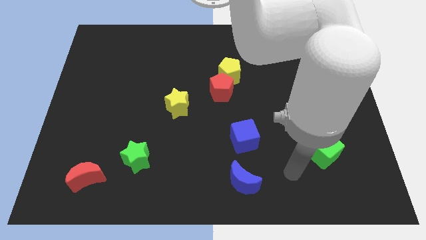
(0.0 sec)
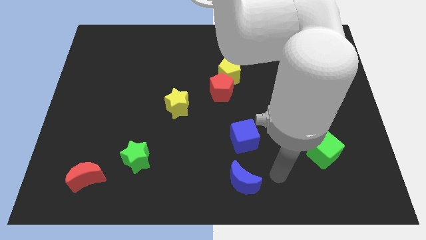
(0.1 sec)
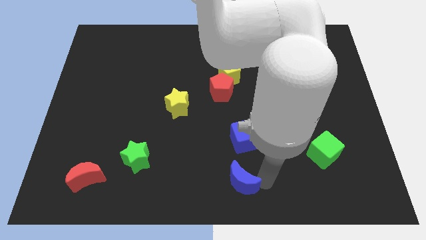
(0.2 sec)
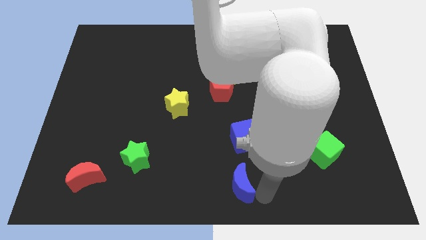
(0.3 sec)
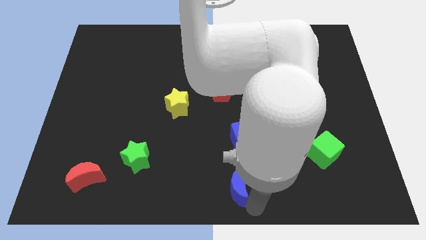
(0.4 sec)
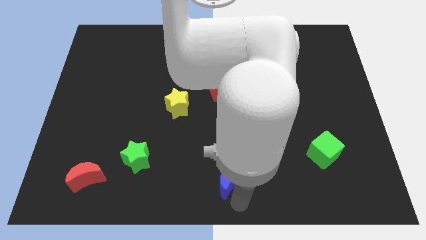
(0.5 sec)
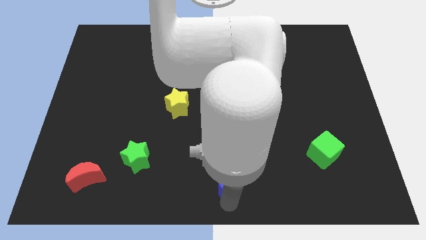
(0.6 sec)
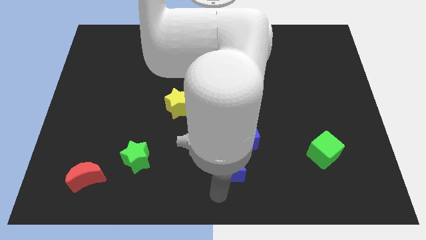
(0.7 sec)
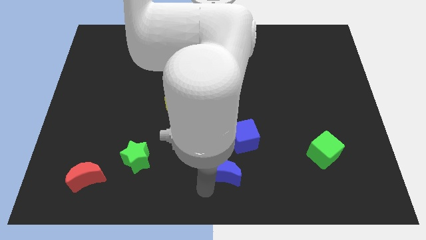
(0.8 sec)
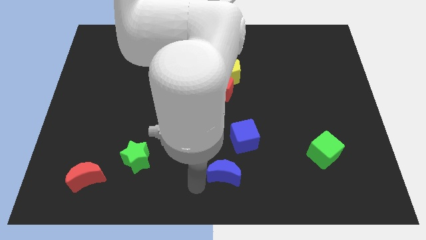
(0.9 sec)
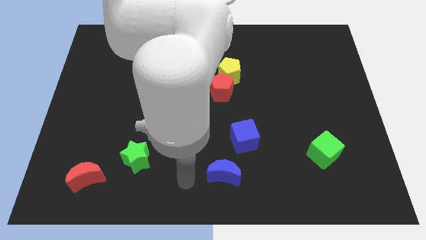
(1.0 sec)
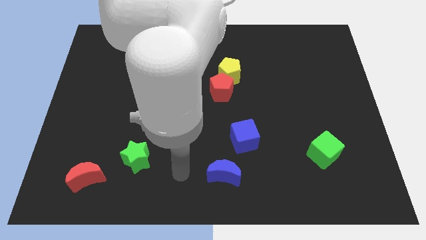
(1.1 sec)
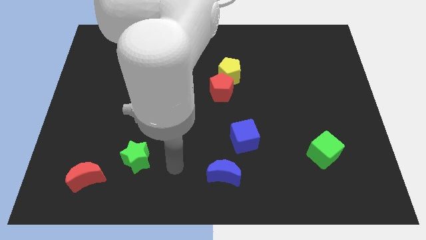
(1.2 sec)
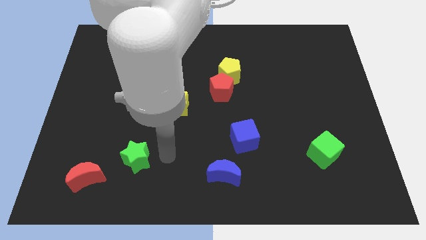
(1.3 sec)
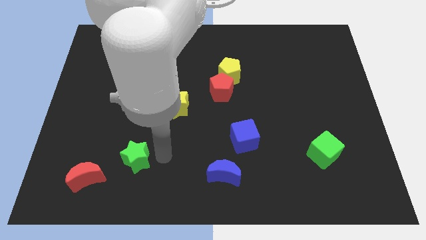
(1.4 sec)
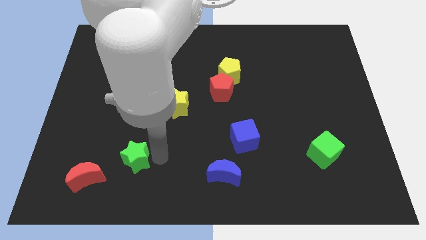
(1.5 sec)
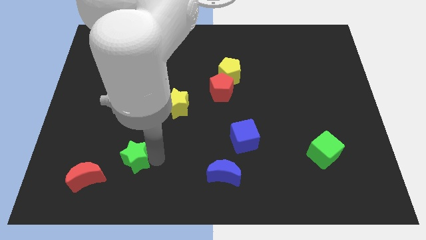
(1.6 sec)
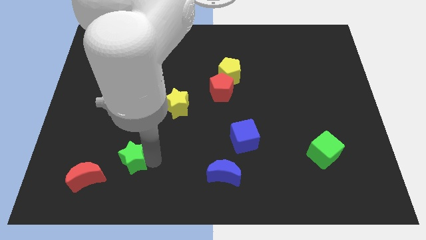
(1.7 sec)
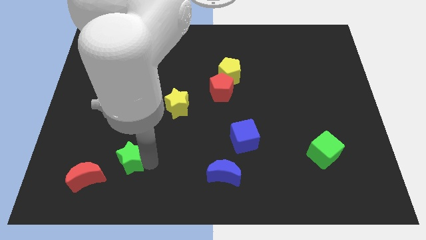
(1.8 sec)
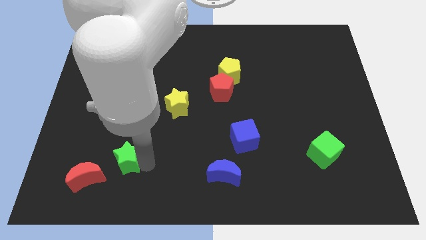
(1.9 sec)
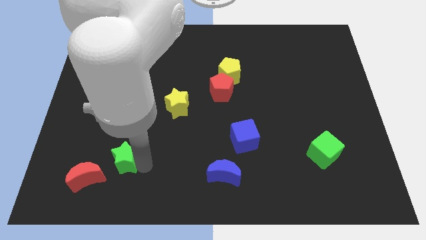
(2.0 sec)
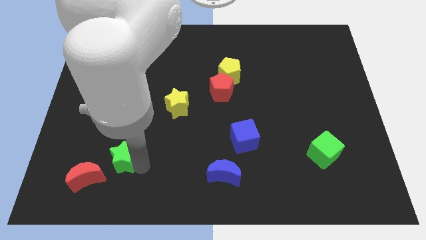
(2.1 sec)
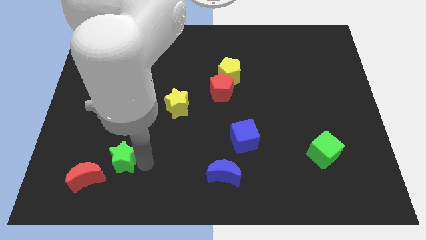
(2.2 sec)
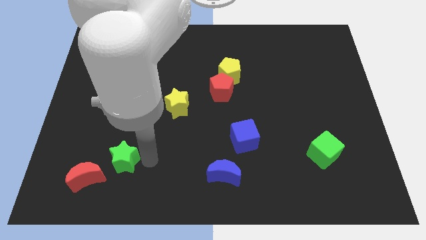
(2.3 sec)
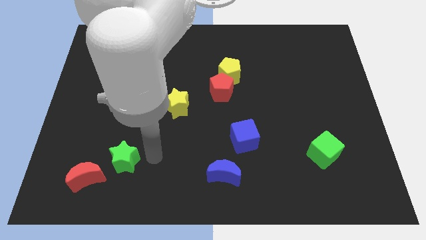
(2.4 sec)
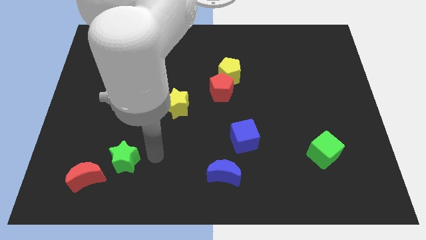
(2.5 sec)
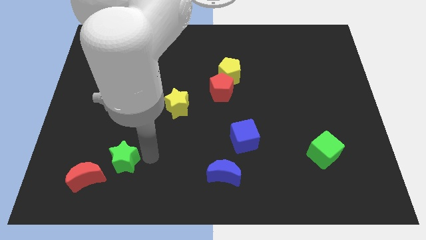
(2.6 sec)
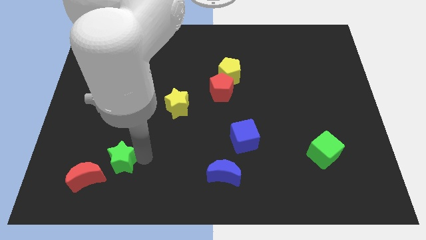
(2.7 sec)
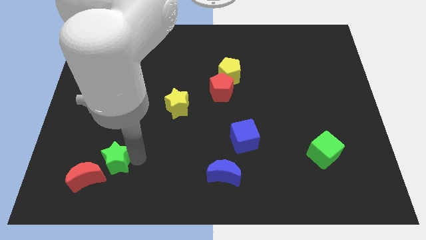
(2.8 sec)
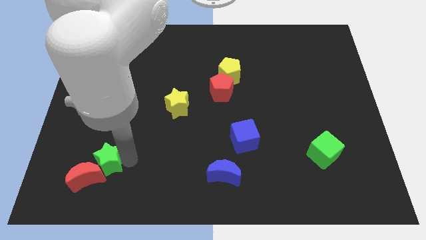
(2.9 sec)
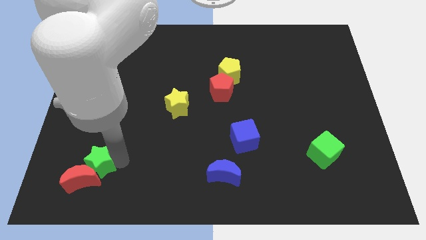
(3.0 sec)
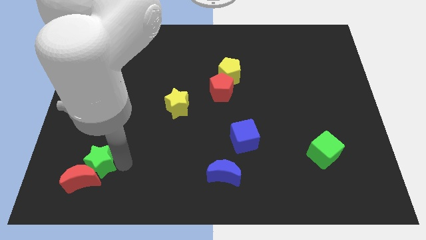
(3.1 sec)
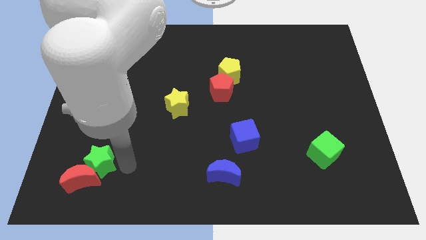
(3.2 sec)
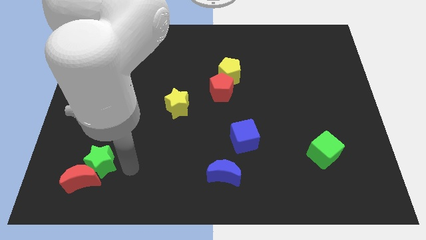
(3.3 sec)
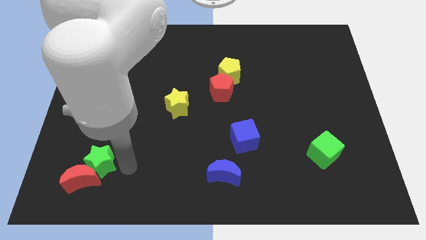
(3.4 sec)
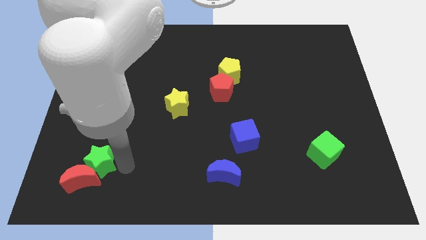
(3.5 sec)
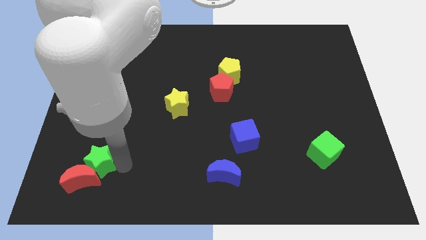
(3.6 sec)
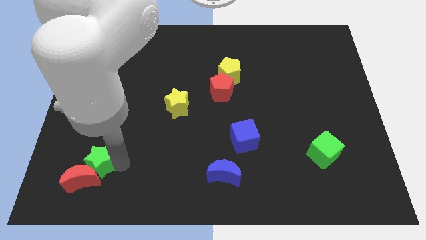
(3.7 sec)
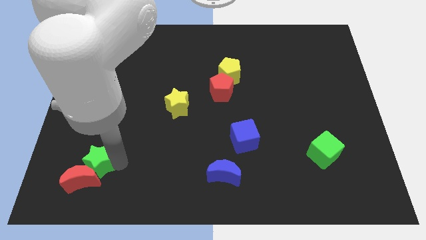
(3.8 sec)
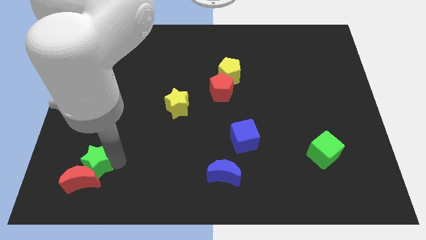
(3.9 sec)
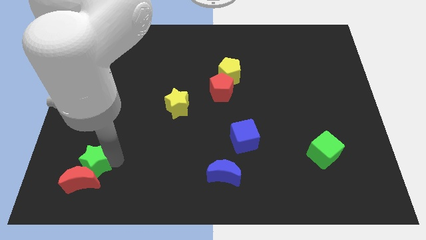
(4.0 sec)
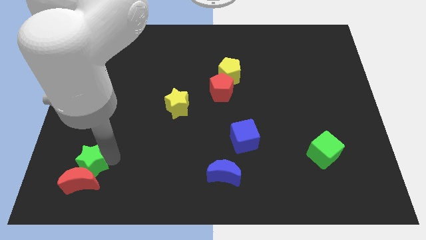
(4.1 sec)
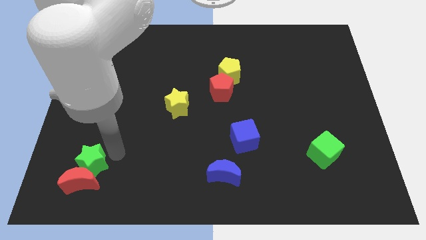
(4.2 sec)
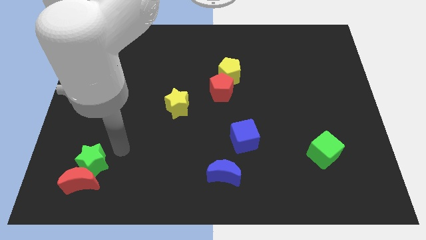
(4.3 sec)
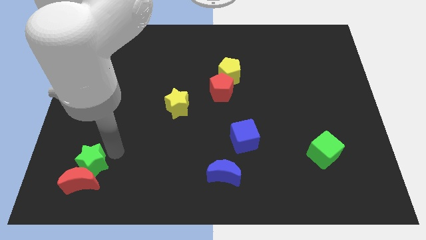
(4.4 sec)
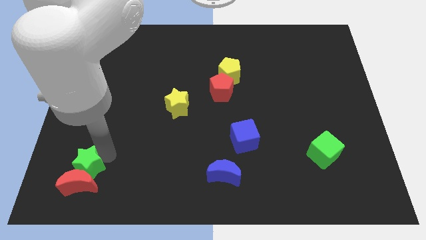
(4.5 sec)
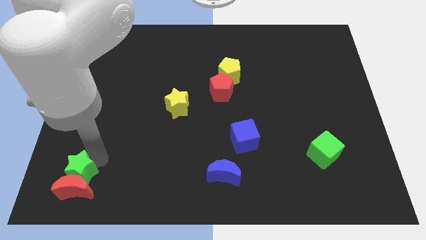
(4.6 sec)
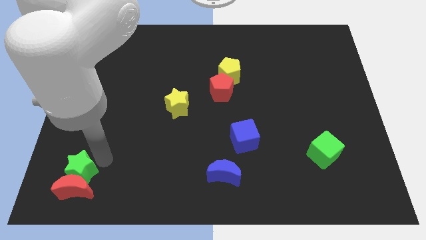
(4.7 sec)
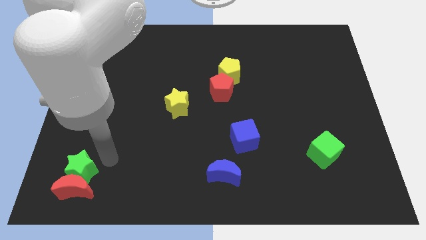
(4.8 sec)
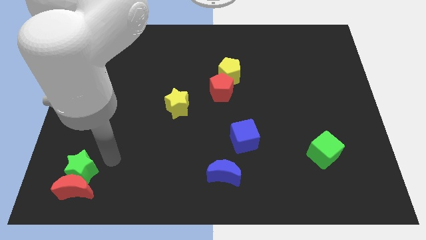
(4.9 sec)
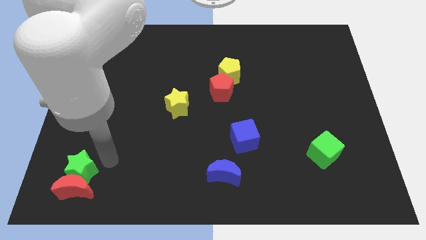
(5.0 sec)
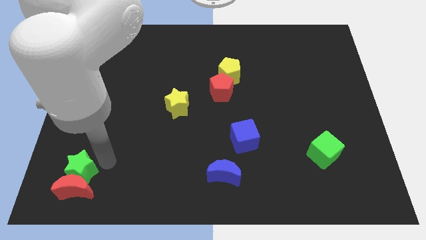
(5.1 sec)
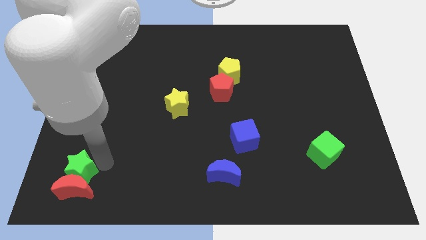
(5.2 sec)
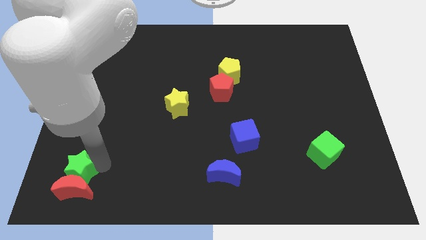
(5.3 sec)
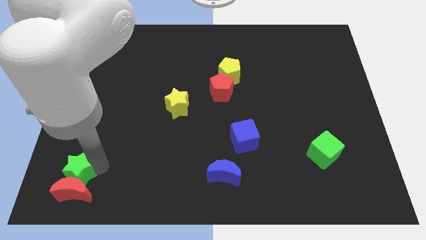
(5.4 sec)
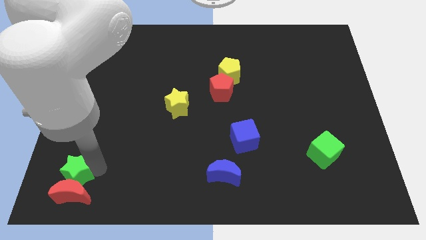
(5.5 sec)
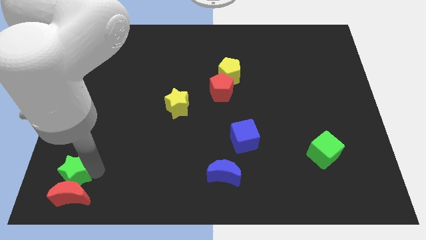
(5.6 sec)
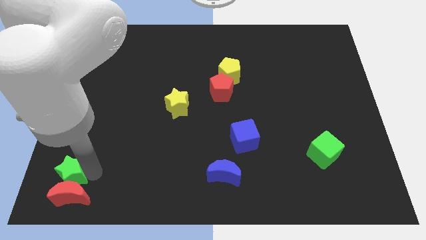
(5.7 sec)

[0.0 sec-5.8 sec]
move the green star to the lower left corner
